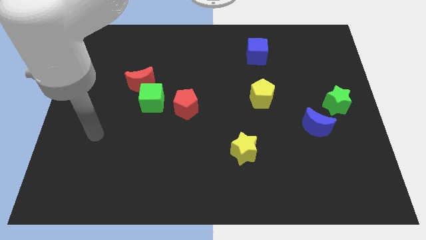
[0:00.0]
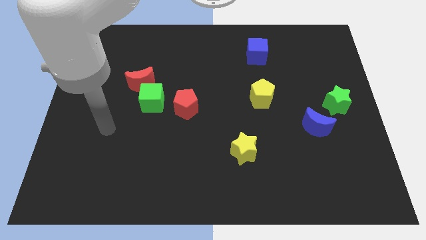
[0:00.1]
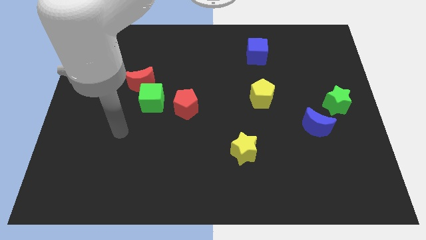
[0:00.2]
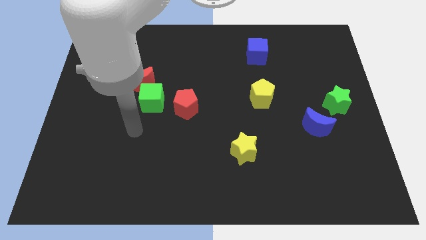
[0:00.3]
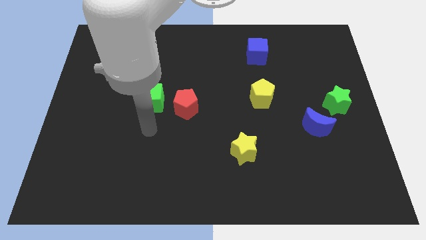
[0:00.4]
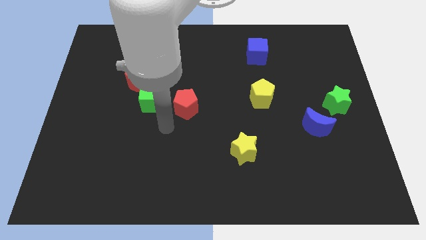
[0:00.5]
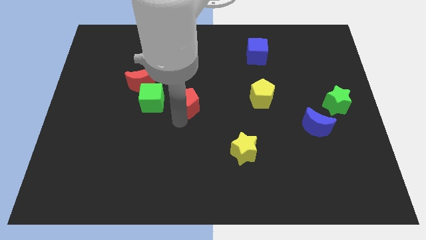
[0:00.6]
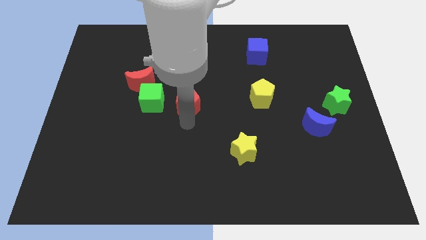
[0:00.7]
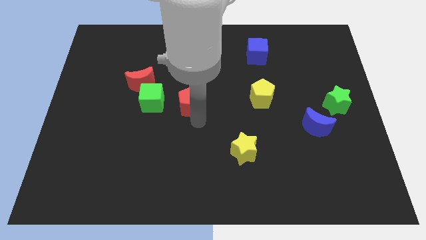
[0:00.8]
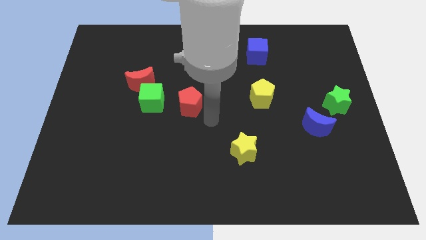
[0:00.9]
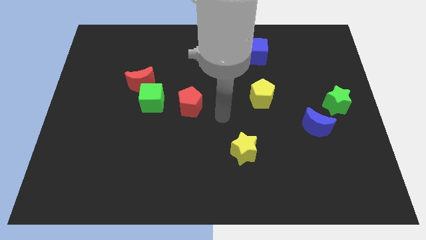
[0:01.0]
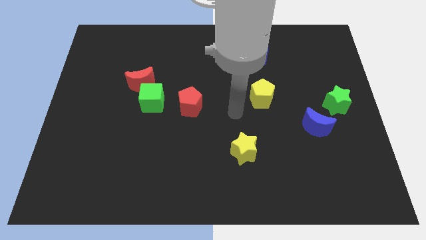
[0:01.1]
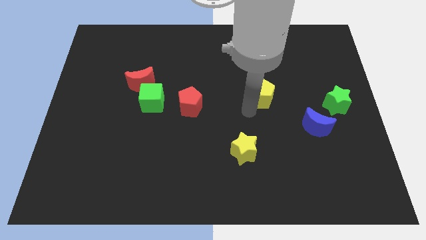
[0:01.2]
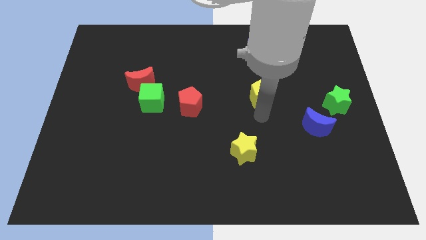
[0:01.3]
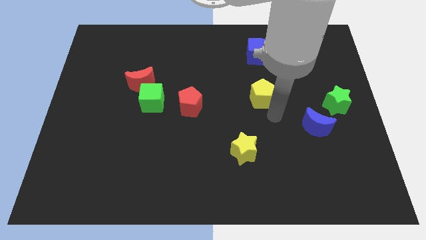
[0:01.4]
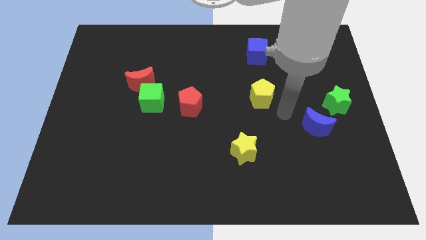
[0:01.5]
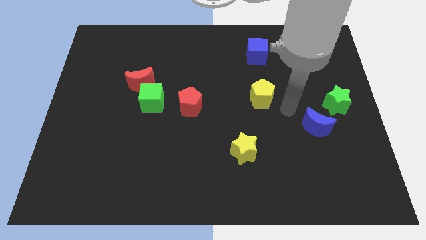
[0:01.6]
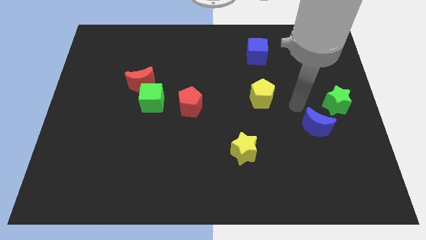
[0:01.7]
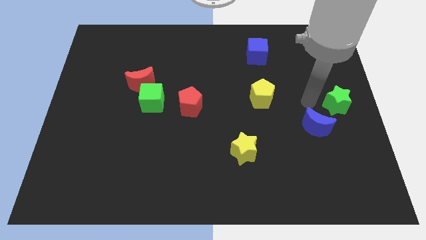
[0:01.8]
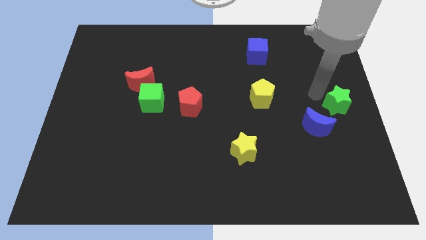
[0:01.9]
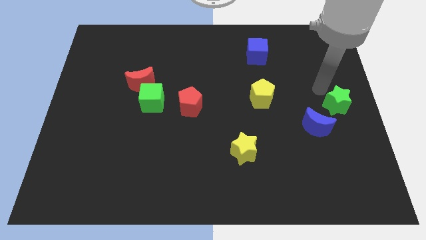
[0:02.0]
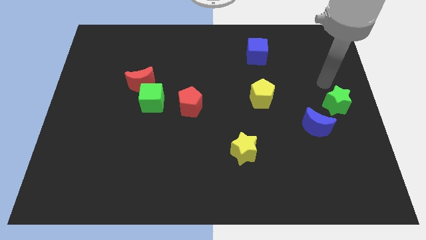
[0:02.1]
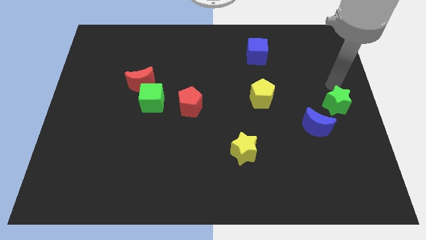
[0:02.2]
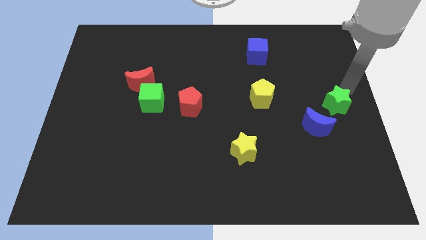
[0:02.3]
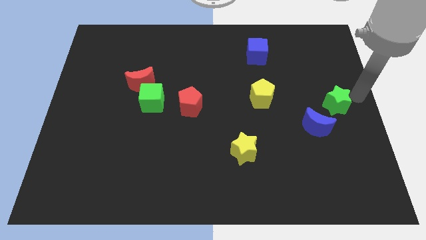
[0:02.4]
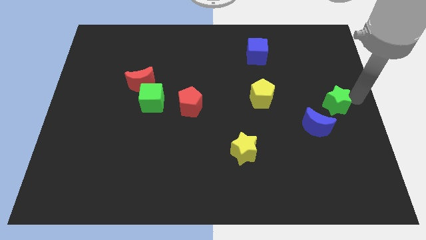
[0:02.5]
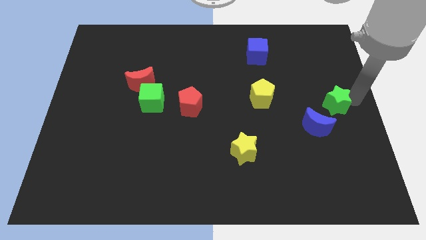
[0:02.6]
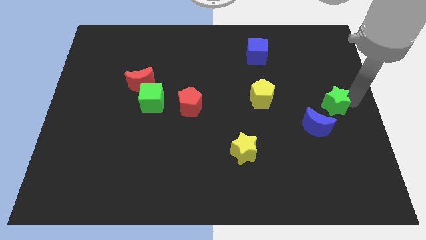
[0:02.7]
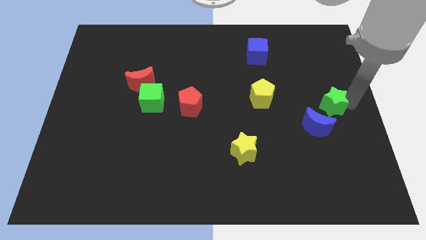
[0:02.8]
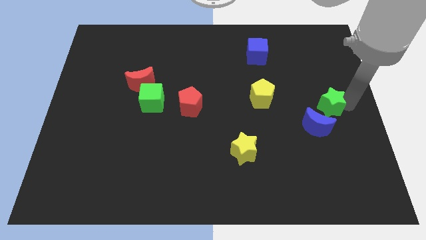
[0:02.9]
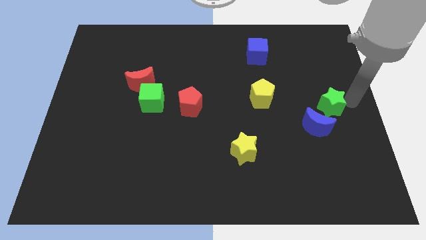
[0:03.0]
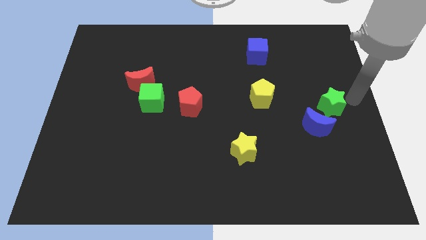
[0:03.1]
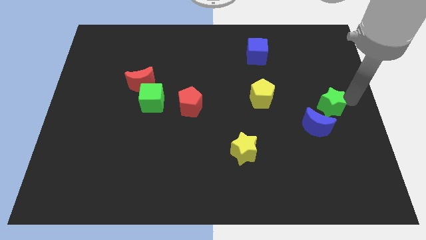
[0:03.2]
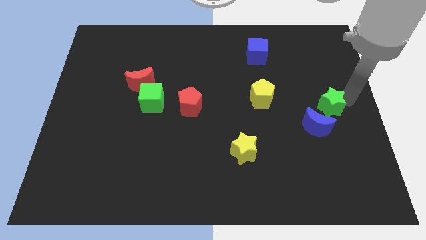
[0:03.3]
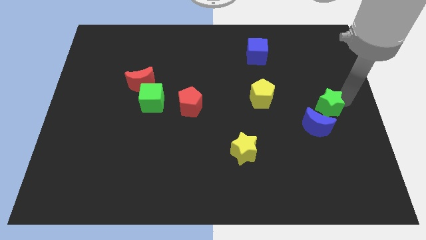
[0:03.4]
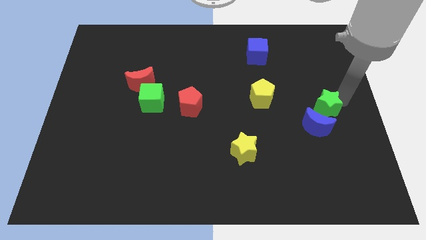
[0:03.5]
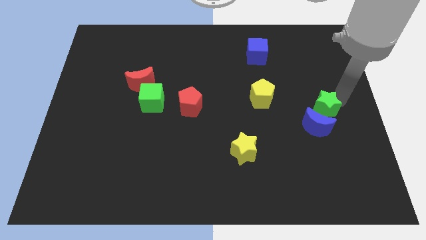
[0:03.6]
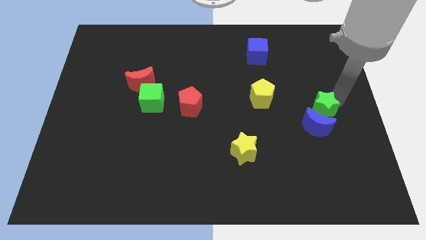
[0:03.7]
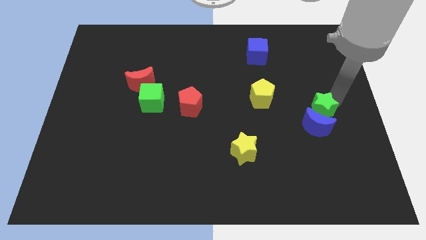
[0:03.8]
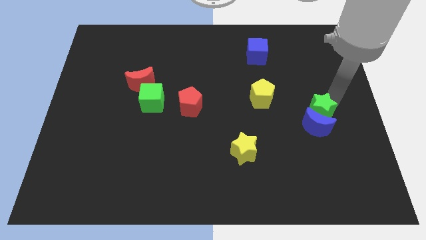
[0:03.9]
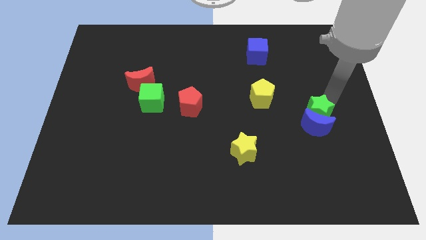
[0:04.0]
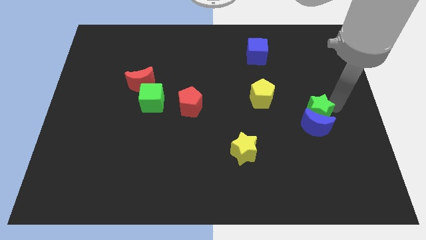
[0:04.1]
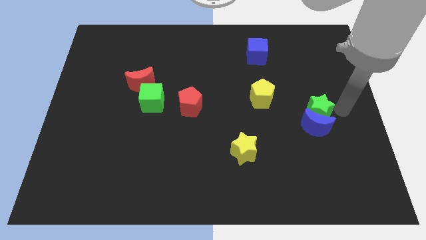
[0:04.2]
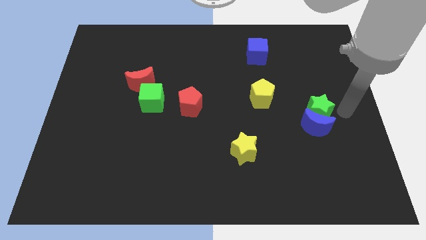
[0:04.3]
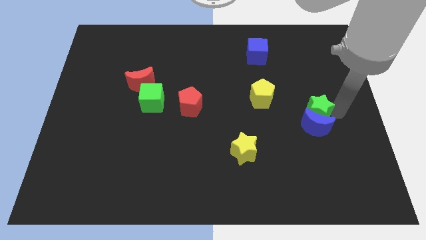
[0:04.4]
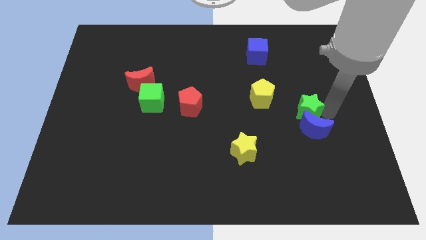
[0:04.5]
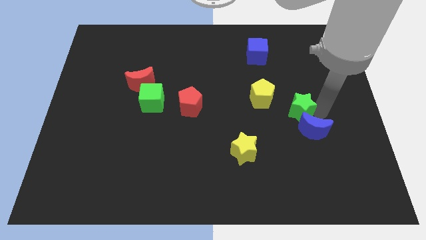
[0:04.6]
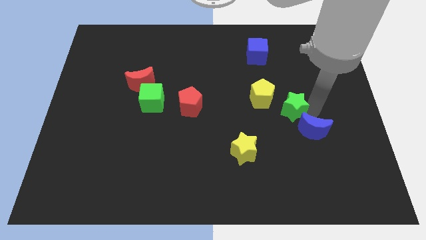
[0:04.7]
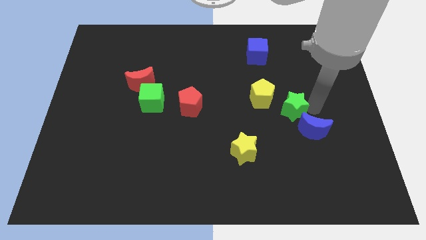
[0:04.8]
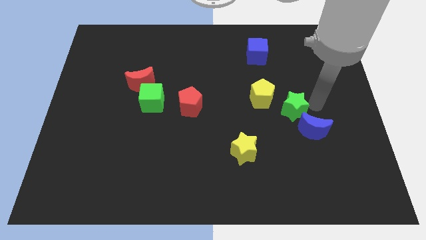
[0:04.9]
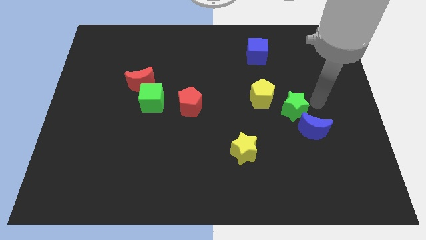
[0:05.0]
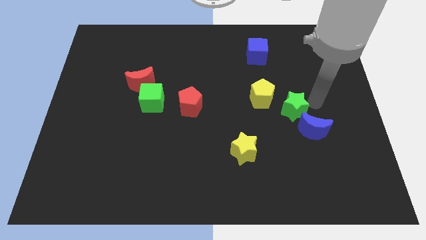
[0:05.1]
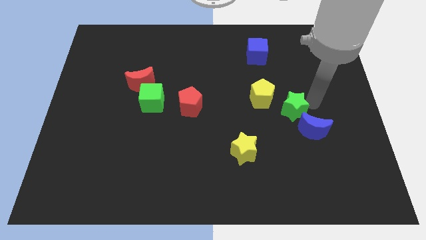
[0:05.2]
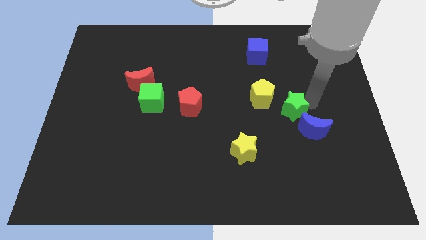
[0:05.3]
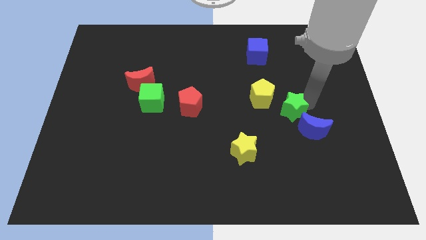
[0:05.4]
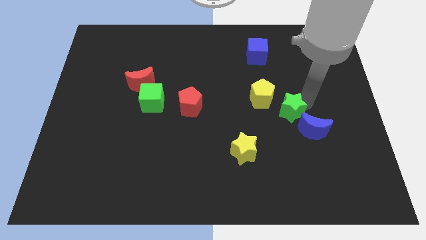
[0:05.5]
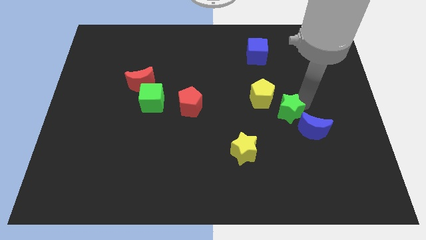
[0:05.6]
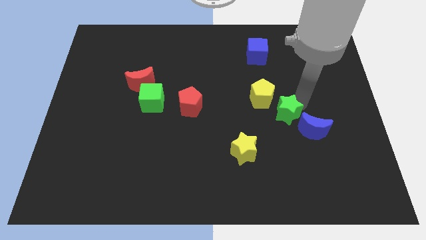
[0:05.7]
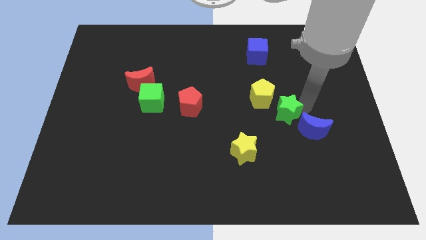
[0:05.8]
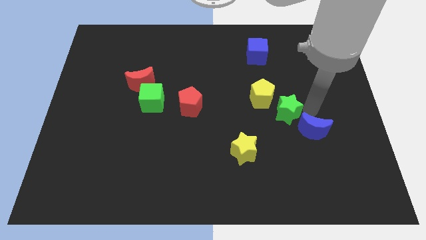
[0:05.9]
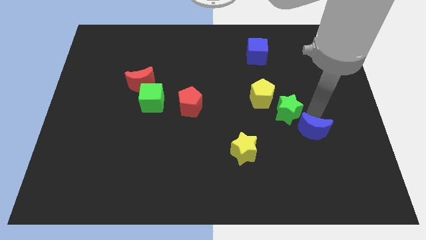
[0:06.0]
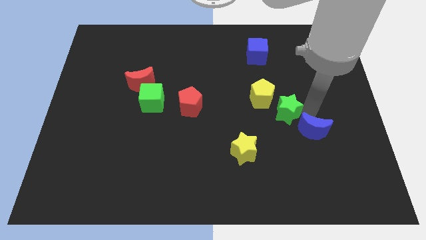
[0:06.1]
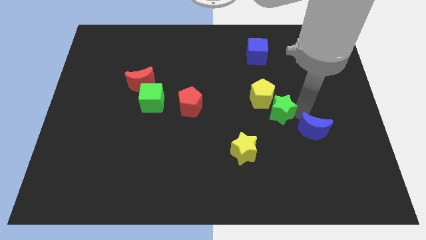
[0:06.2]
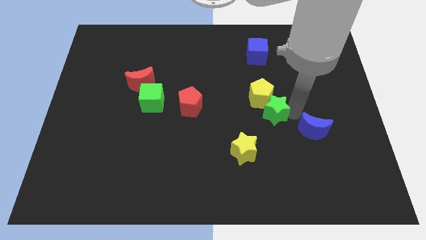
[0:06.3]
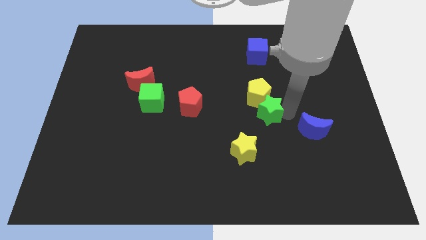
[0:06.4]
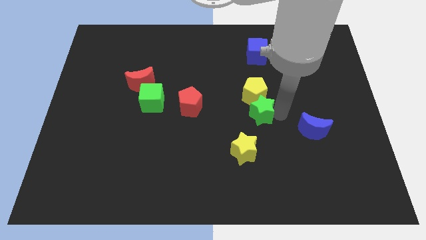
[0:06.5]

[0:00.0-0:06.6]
slide the green star to the middle of the board
